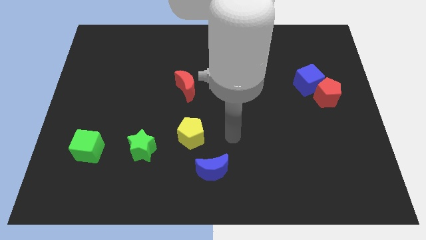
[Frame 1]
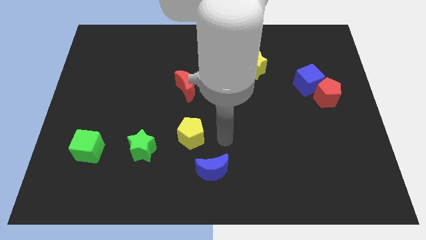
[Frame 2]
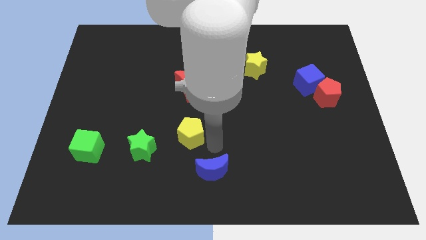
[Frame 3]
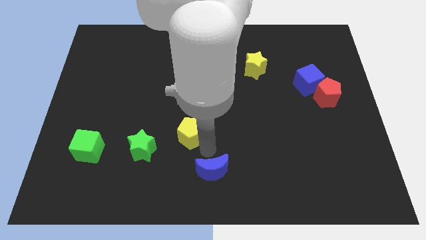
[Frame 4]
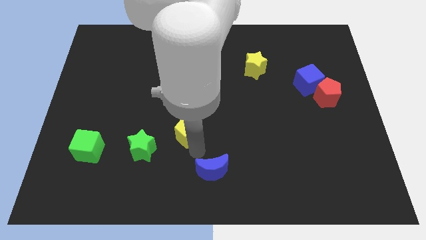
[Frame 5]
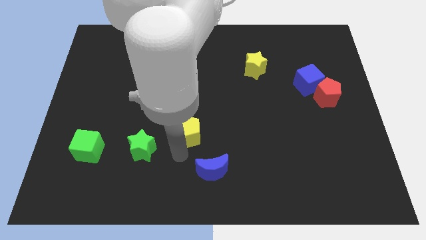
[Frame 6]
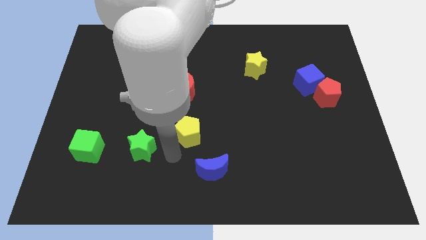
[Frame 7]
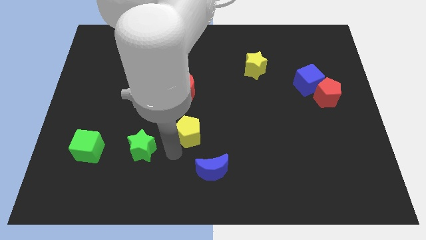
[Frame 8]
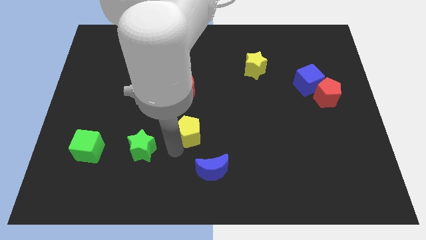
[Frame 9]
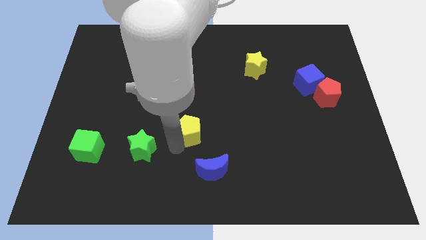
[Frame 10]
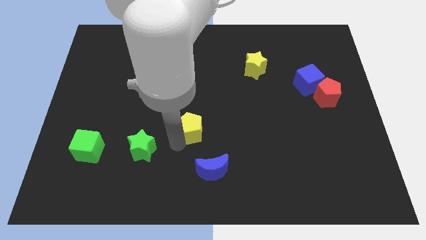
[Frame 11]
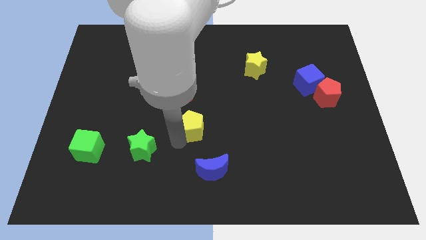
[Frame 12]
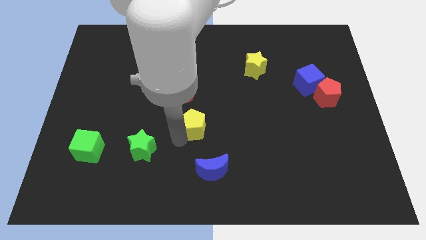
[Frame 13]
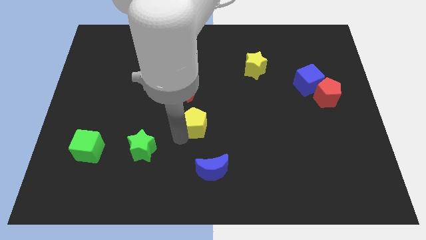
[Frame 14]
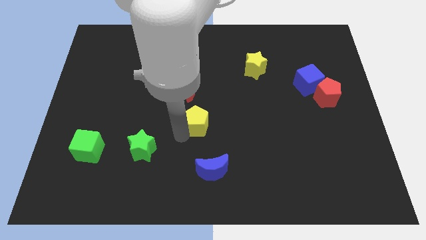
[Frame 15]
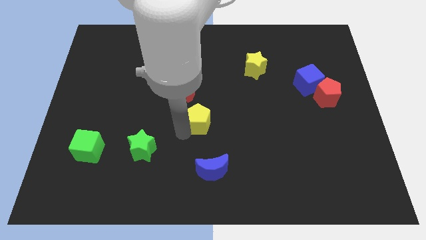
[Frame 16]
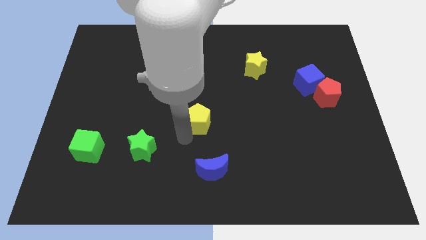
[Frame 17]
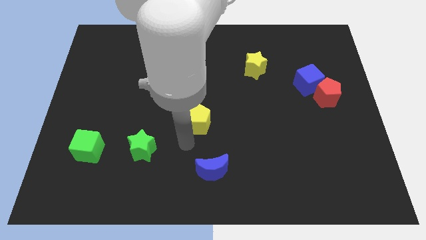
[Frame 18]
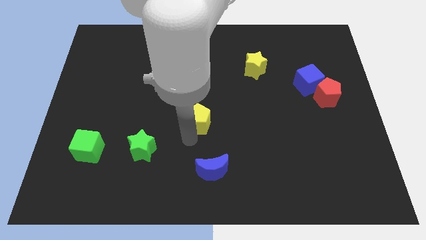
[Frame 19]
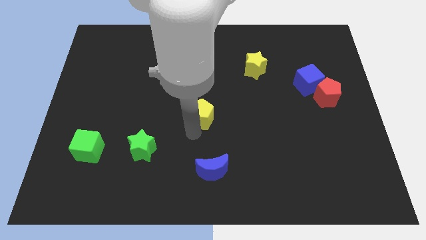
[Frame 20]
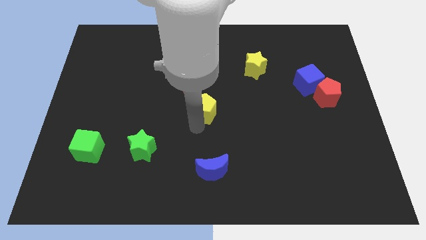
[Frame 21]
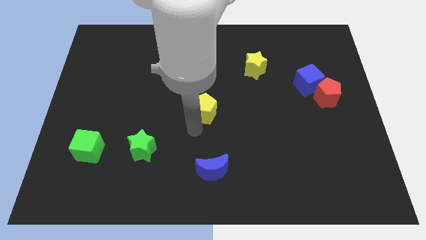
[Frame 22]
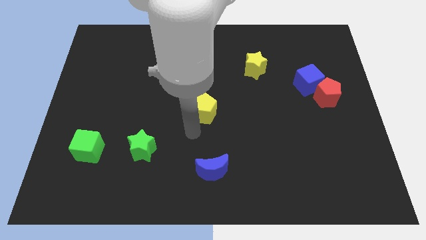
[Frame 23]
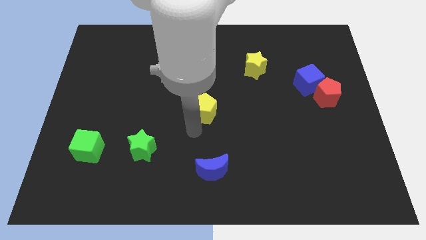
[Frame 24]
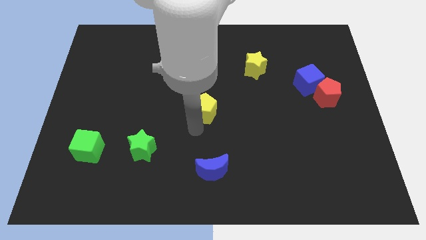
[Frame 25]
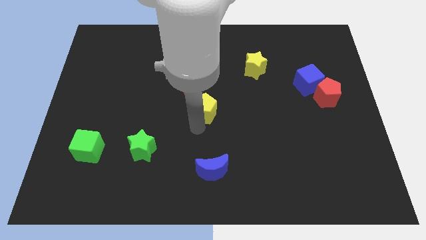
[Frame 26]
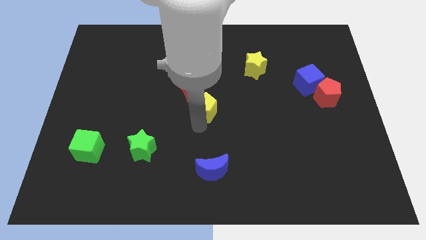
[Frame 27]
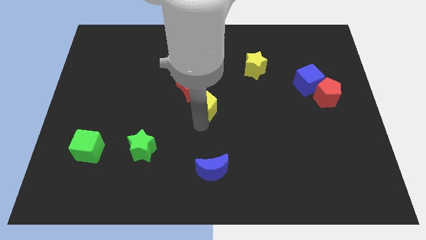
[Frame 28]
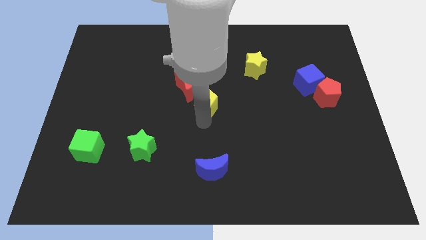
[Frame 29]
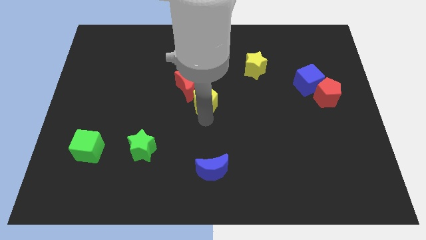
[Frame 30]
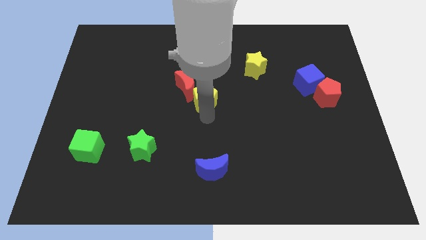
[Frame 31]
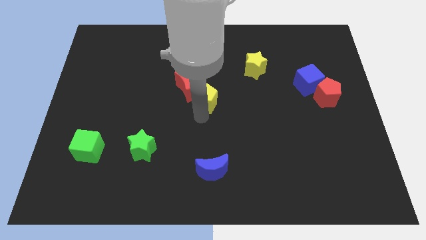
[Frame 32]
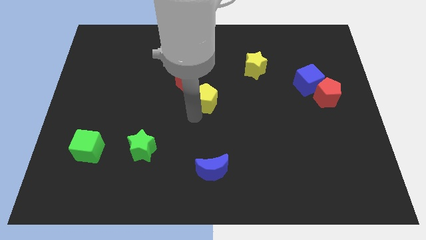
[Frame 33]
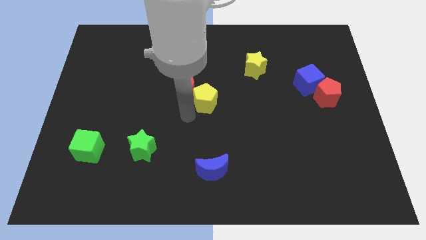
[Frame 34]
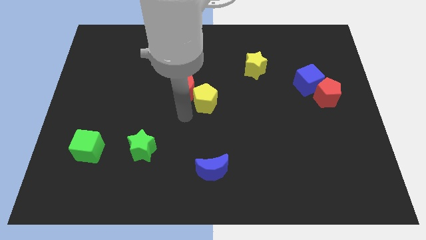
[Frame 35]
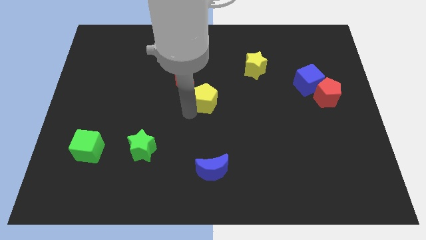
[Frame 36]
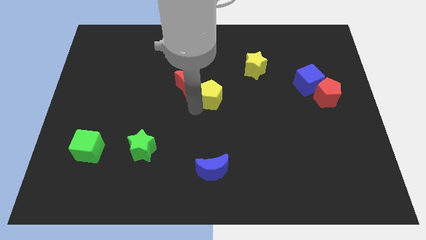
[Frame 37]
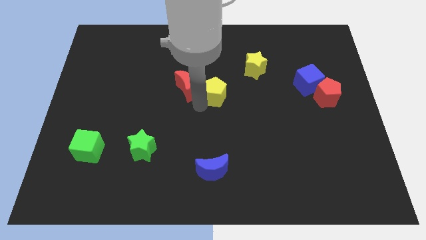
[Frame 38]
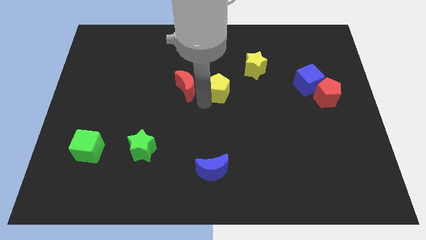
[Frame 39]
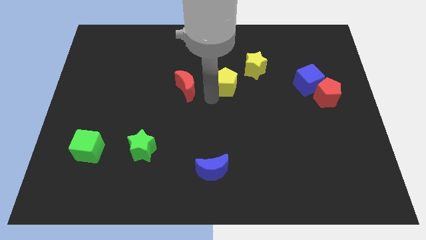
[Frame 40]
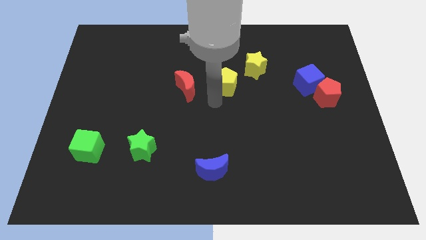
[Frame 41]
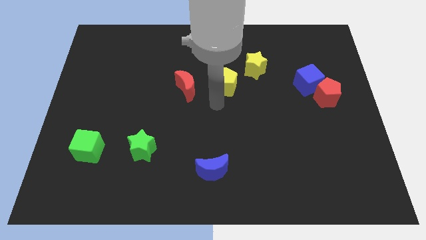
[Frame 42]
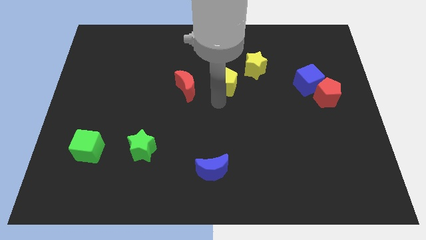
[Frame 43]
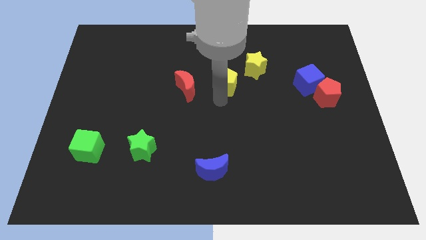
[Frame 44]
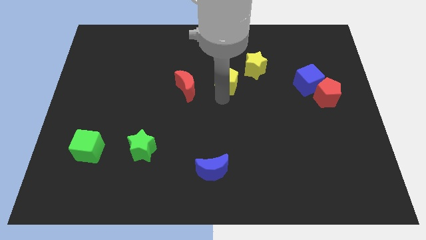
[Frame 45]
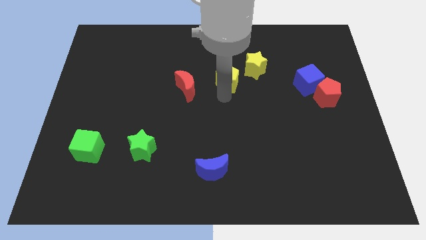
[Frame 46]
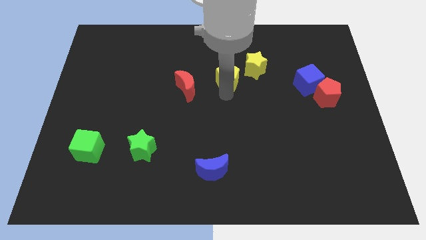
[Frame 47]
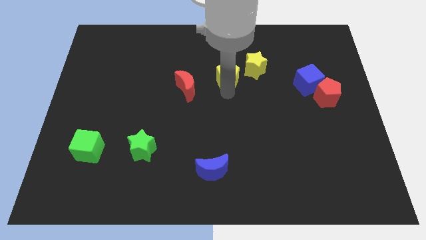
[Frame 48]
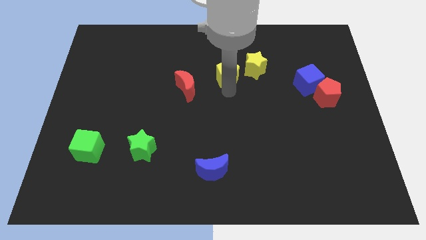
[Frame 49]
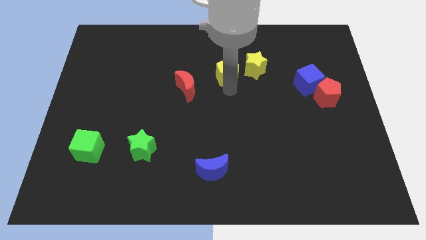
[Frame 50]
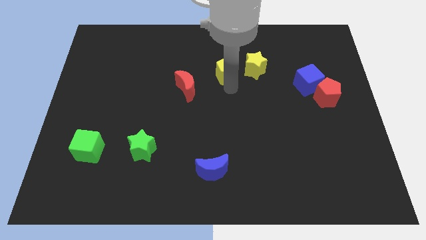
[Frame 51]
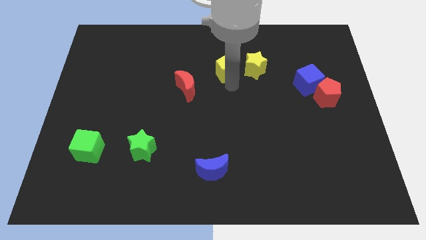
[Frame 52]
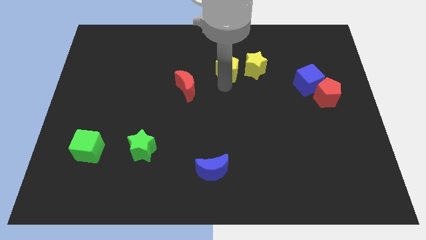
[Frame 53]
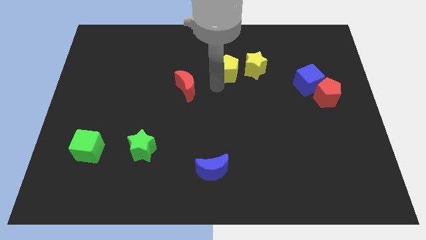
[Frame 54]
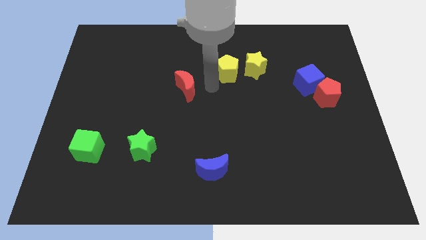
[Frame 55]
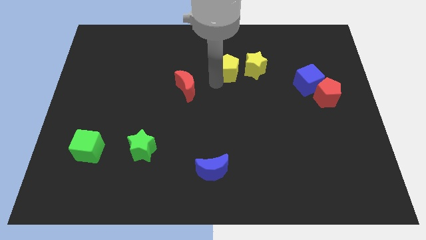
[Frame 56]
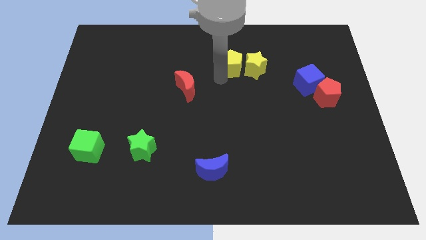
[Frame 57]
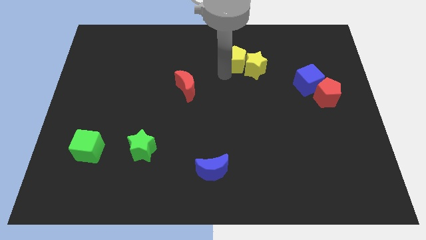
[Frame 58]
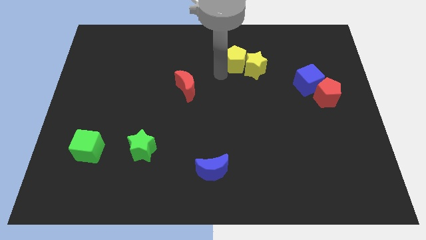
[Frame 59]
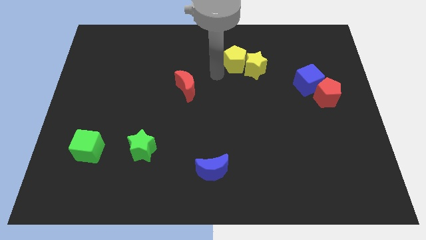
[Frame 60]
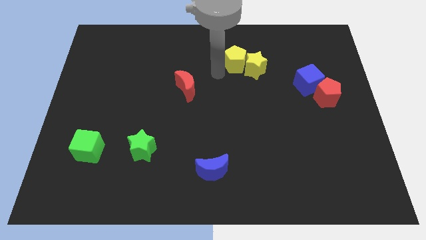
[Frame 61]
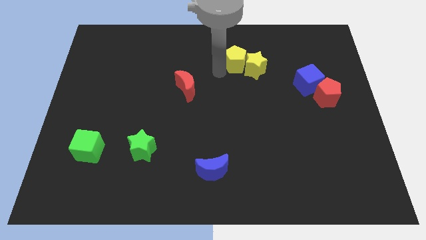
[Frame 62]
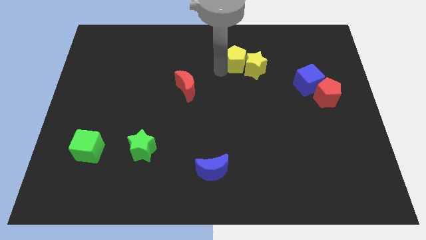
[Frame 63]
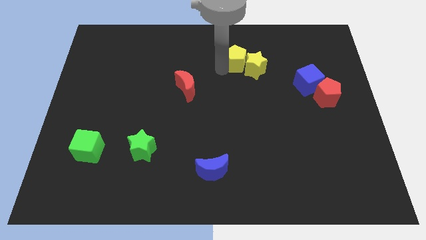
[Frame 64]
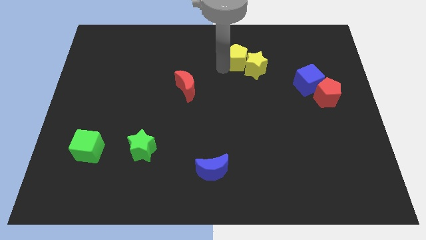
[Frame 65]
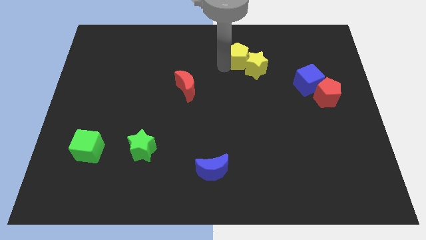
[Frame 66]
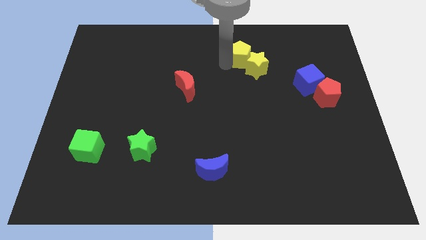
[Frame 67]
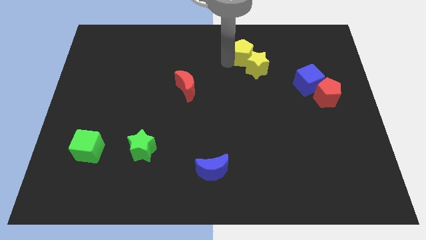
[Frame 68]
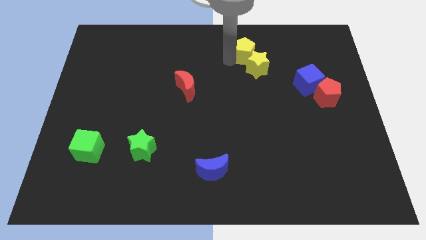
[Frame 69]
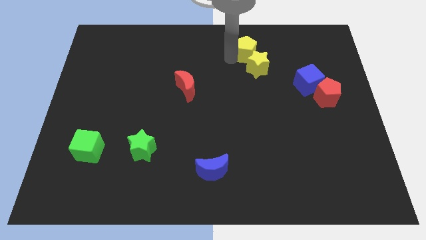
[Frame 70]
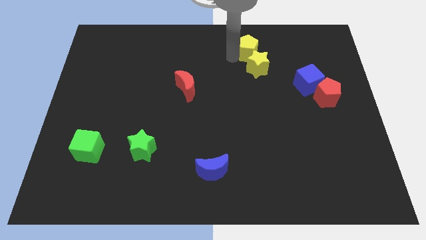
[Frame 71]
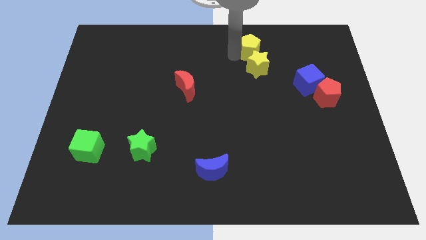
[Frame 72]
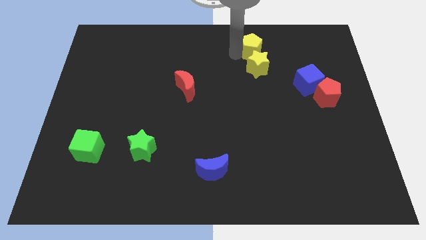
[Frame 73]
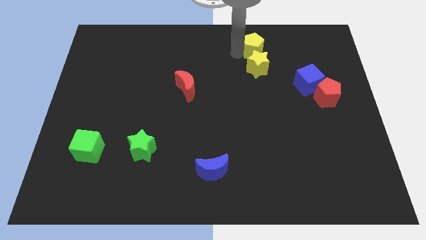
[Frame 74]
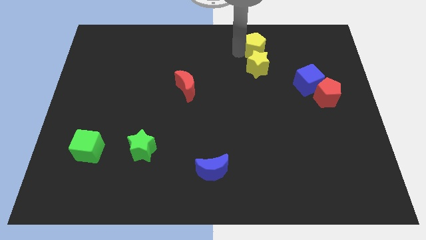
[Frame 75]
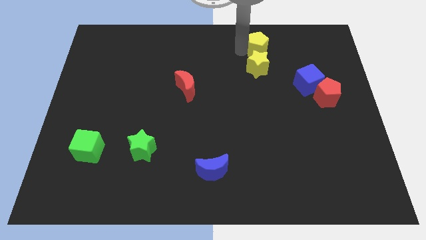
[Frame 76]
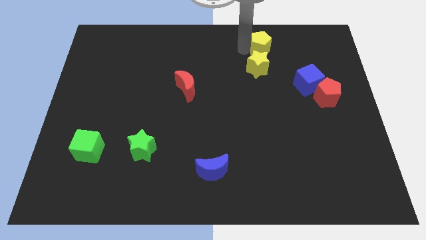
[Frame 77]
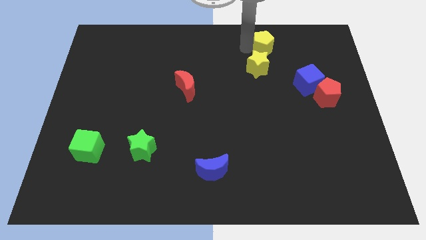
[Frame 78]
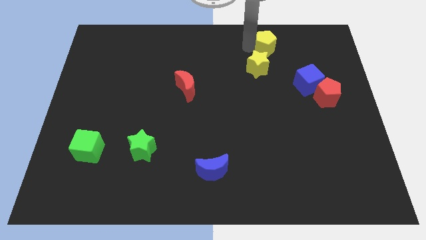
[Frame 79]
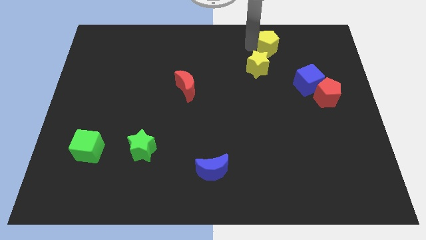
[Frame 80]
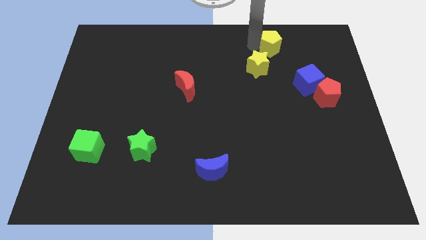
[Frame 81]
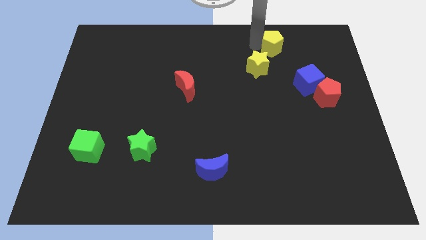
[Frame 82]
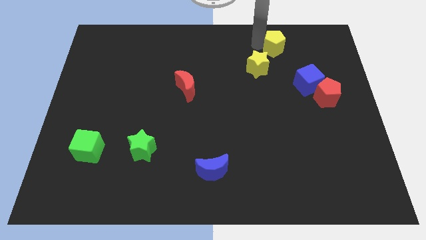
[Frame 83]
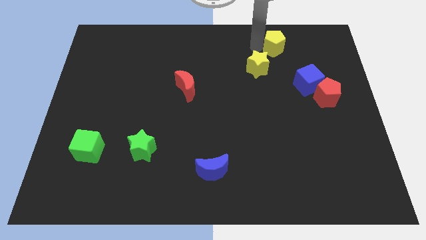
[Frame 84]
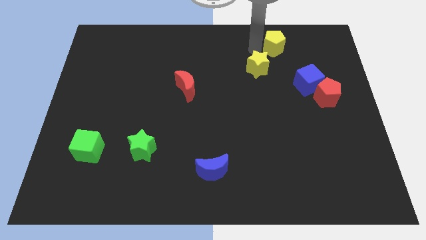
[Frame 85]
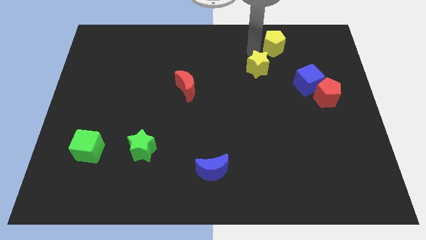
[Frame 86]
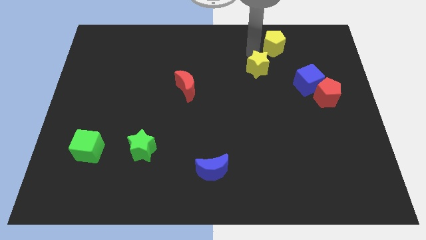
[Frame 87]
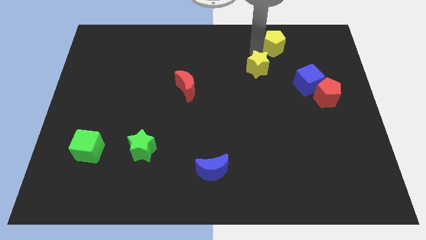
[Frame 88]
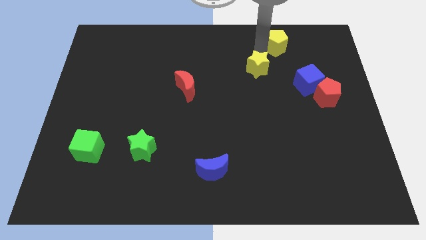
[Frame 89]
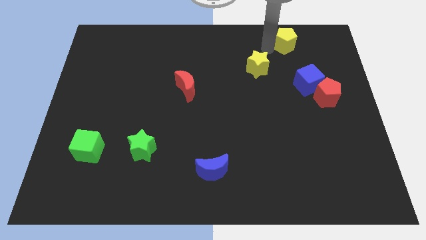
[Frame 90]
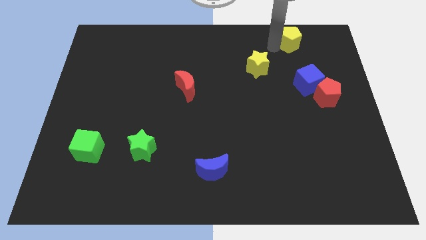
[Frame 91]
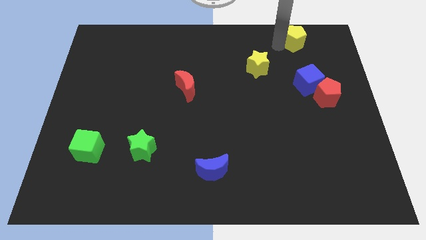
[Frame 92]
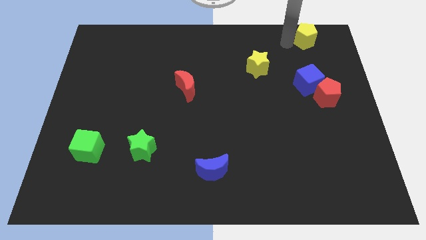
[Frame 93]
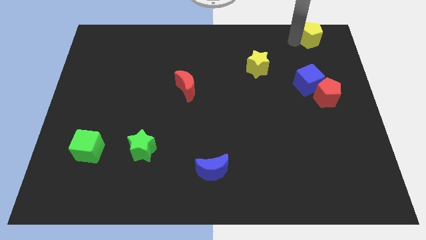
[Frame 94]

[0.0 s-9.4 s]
push the yellow pentagon to the top right of the board
